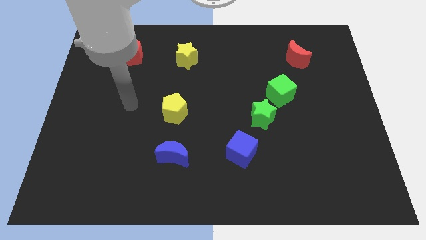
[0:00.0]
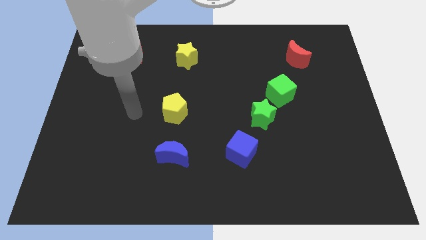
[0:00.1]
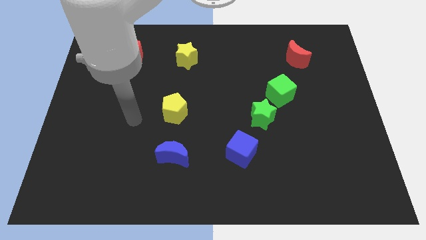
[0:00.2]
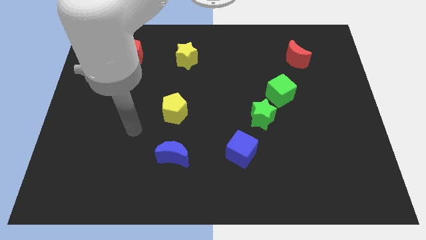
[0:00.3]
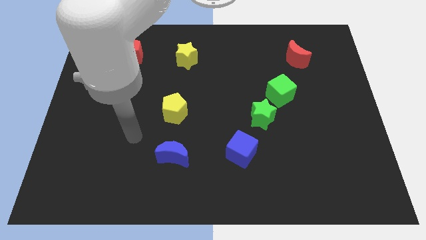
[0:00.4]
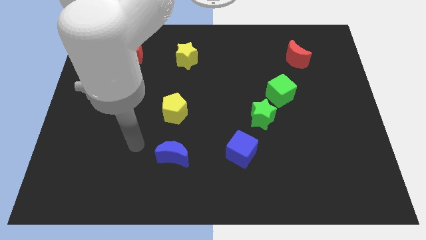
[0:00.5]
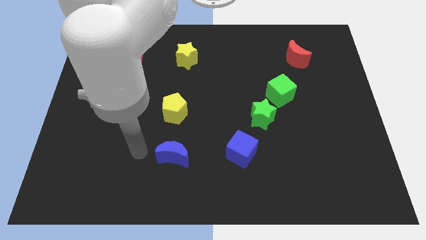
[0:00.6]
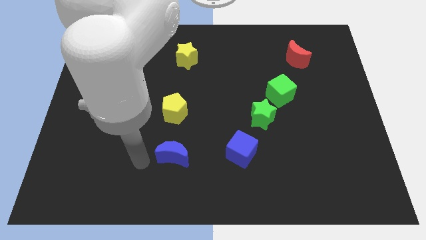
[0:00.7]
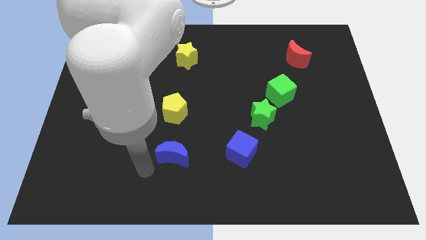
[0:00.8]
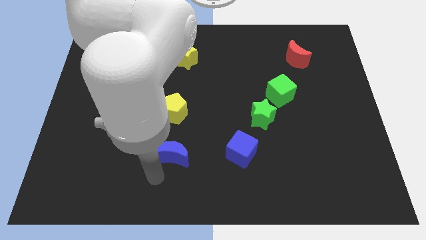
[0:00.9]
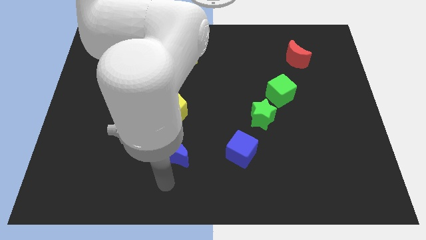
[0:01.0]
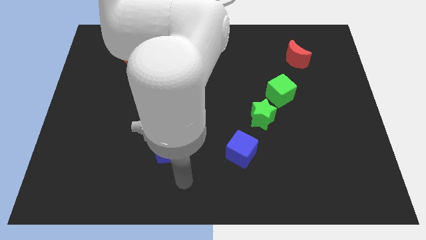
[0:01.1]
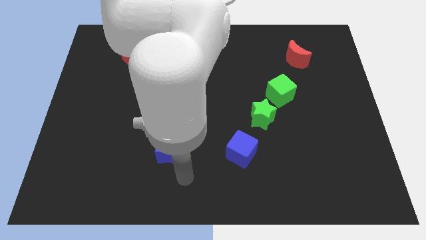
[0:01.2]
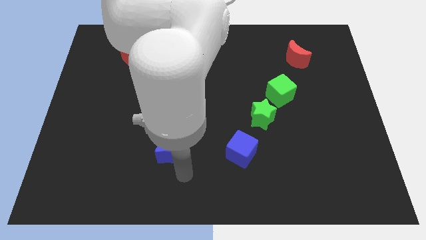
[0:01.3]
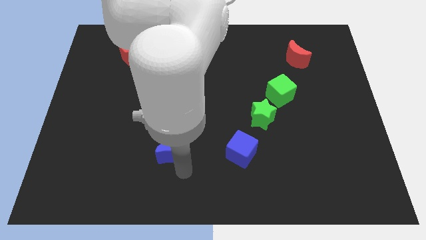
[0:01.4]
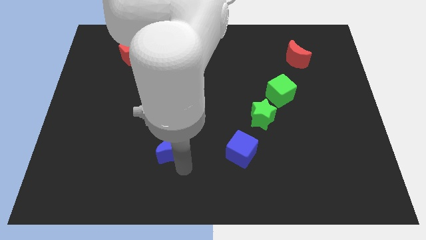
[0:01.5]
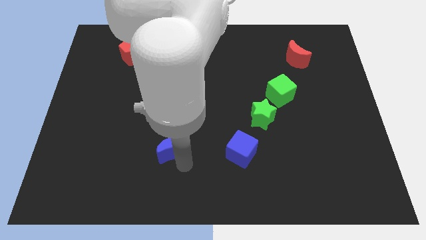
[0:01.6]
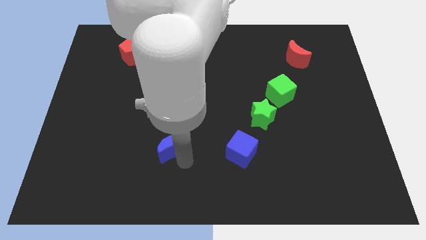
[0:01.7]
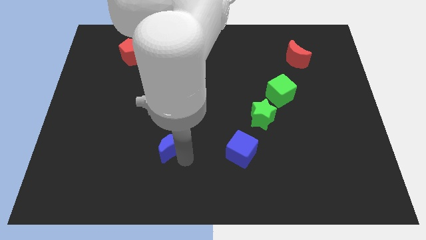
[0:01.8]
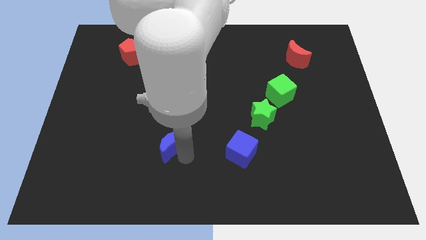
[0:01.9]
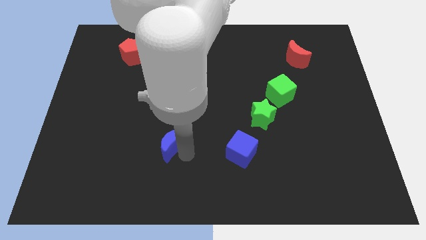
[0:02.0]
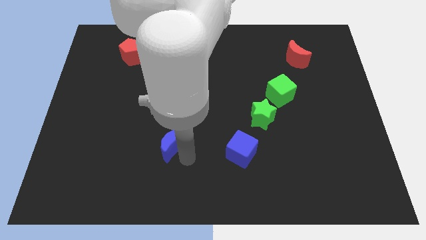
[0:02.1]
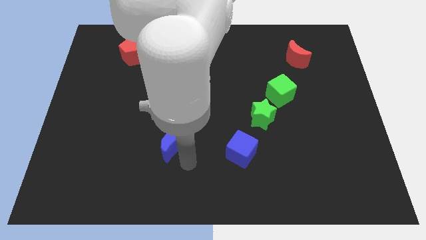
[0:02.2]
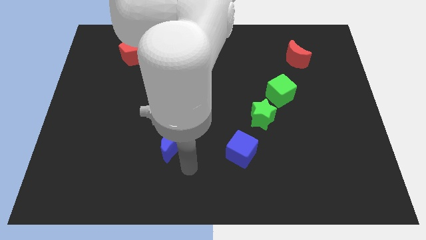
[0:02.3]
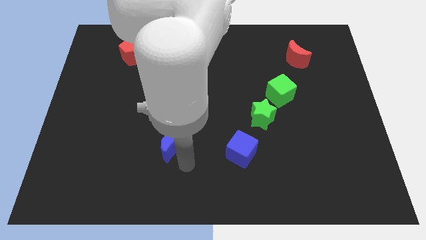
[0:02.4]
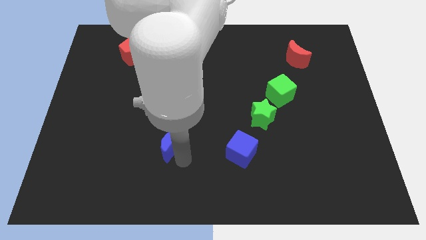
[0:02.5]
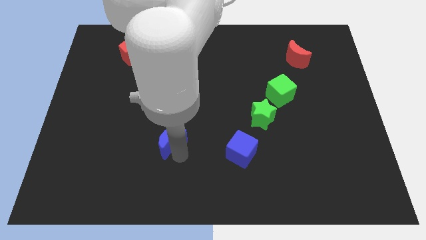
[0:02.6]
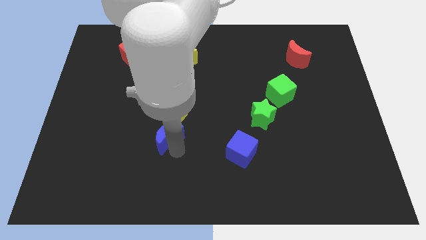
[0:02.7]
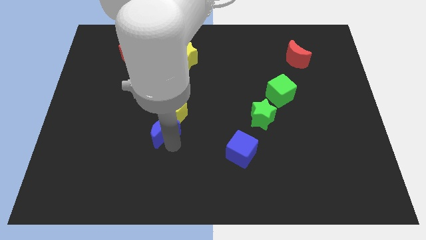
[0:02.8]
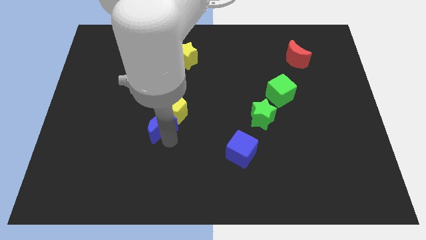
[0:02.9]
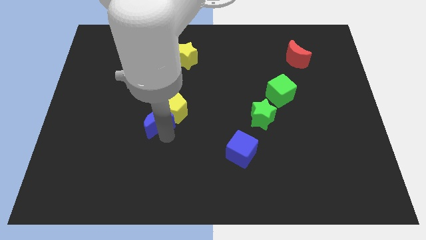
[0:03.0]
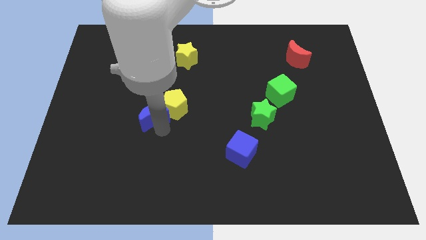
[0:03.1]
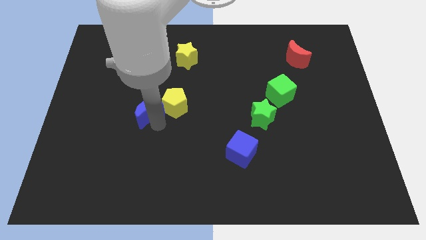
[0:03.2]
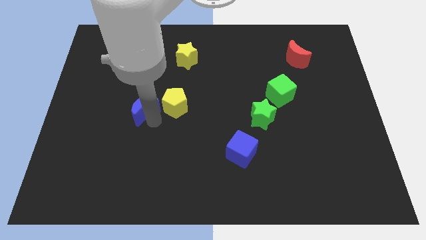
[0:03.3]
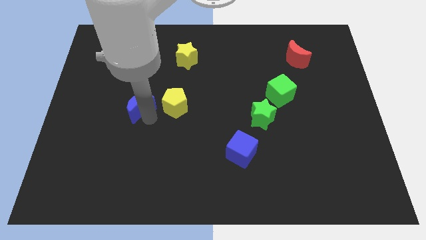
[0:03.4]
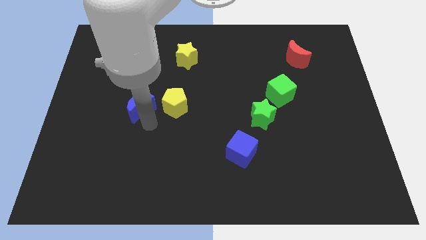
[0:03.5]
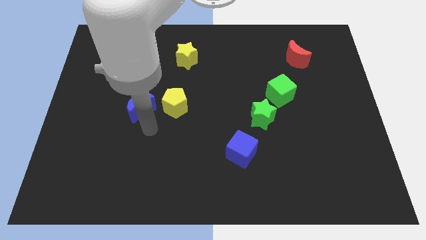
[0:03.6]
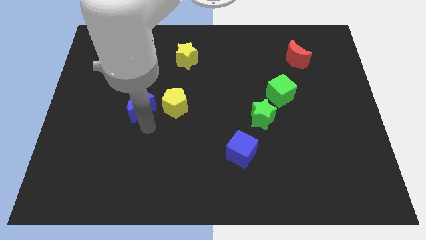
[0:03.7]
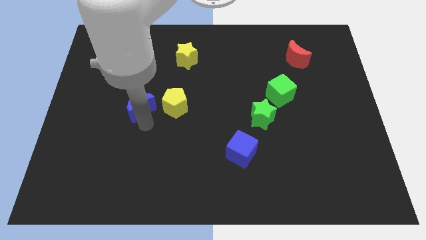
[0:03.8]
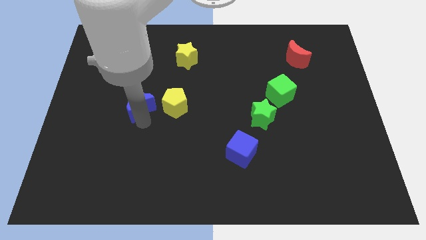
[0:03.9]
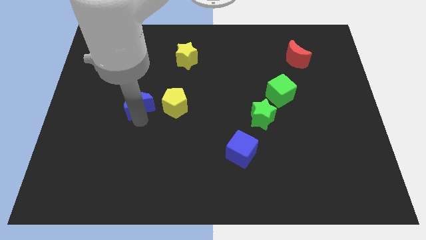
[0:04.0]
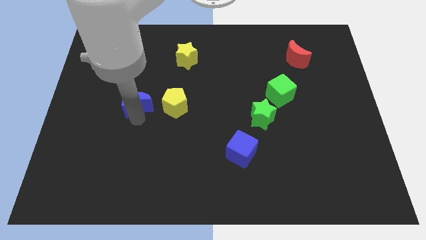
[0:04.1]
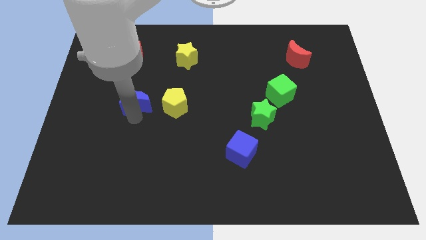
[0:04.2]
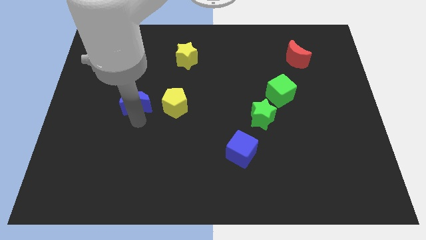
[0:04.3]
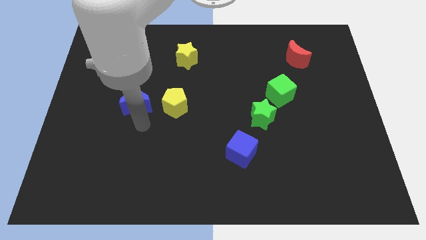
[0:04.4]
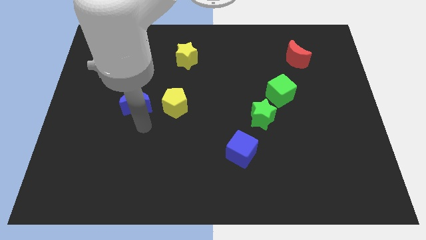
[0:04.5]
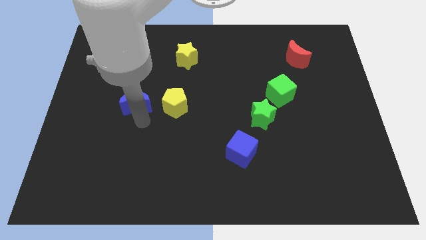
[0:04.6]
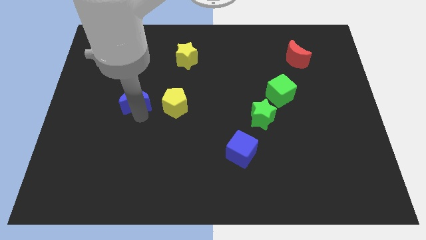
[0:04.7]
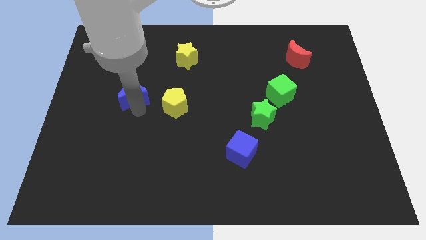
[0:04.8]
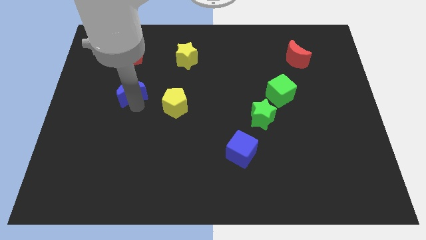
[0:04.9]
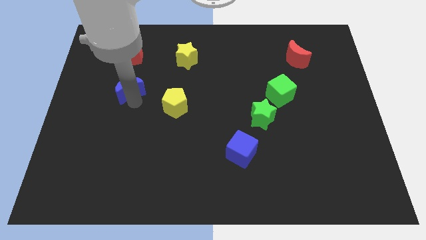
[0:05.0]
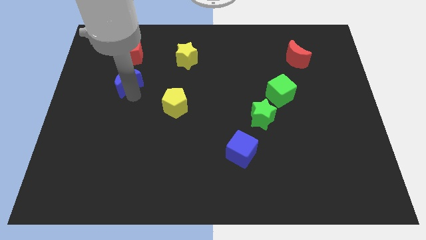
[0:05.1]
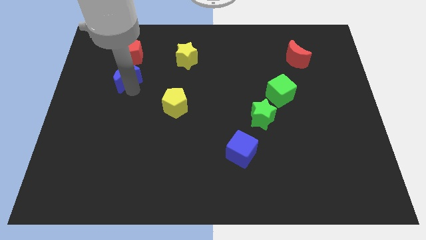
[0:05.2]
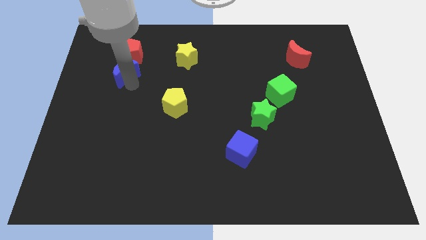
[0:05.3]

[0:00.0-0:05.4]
move the blue moon to the bottom left of the red pentagon

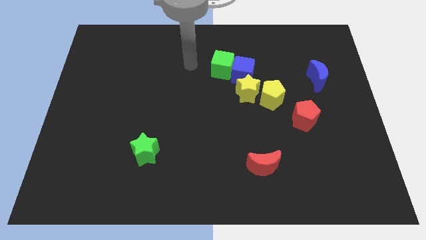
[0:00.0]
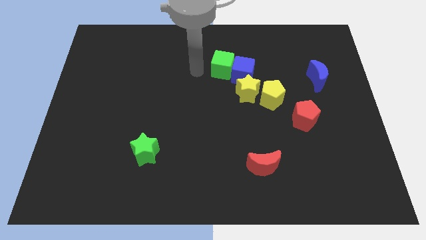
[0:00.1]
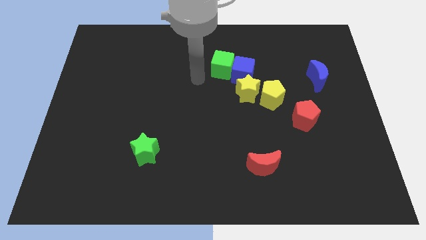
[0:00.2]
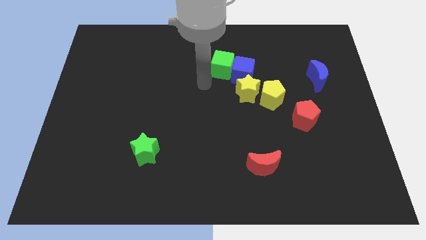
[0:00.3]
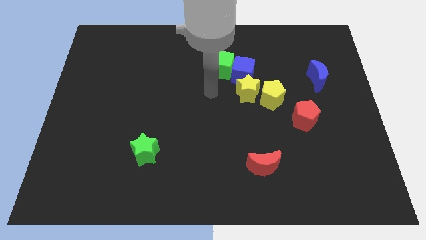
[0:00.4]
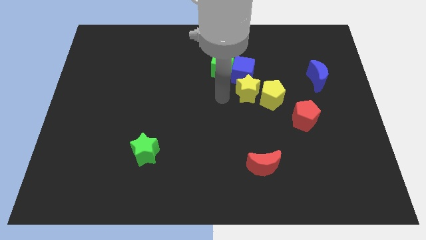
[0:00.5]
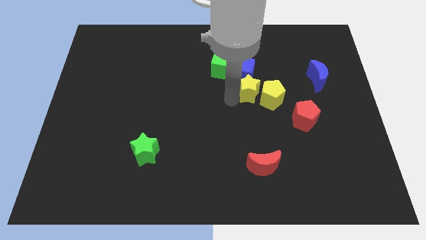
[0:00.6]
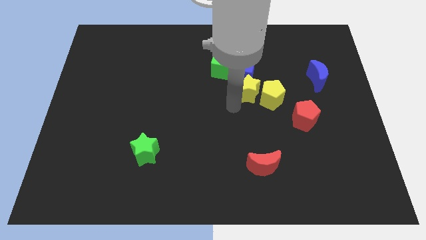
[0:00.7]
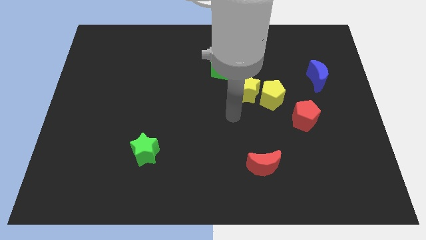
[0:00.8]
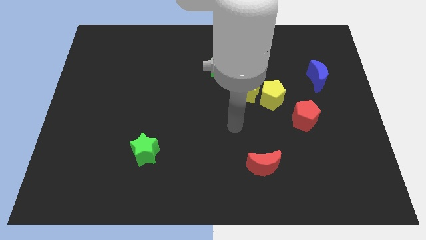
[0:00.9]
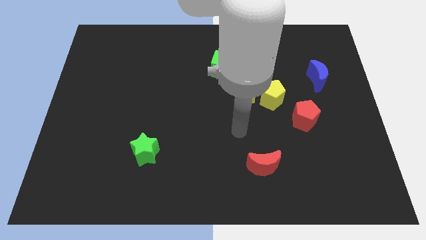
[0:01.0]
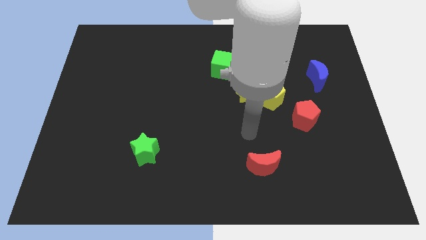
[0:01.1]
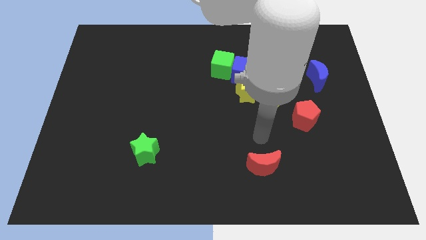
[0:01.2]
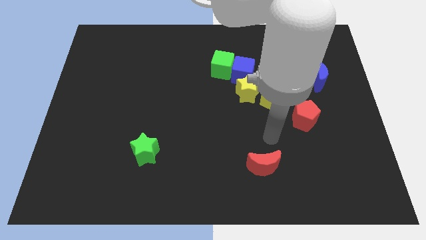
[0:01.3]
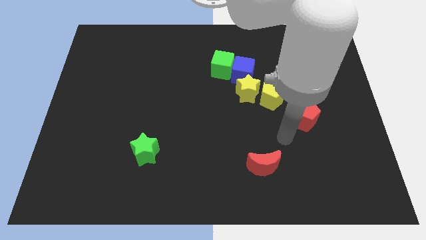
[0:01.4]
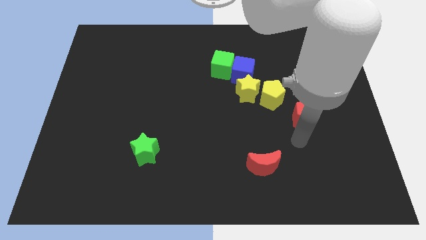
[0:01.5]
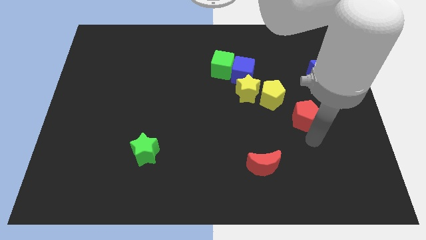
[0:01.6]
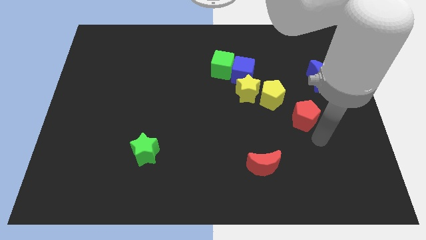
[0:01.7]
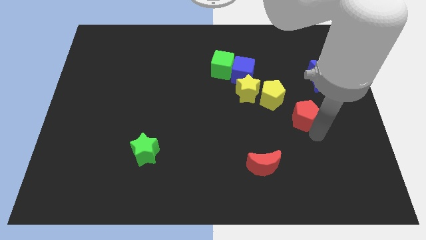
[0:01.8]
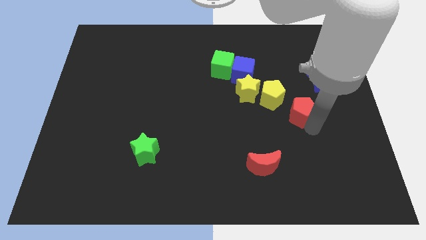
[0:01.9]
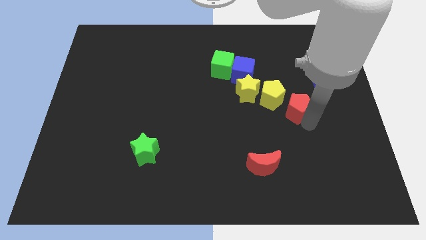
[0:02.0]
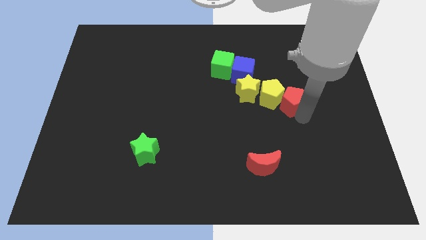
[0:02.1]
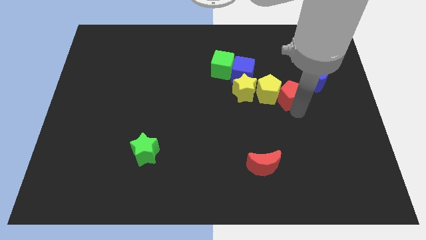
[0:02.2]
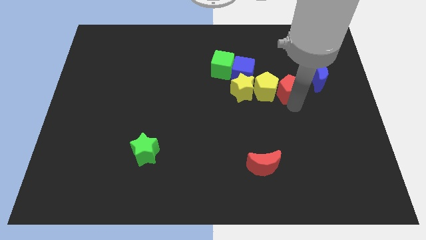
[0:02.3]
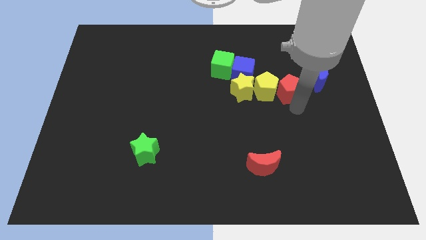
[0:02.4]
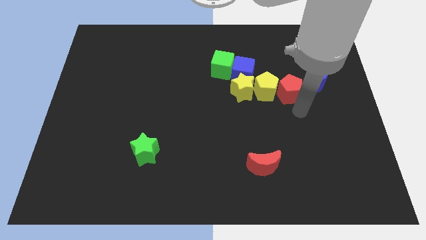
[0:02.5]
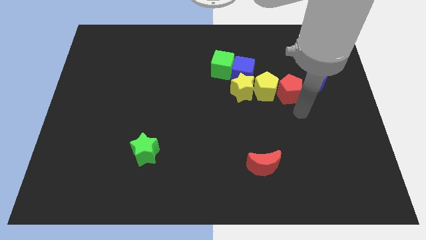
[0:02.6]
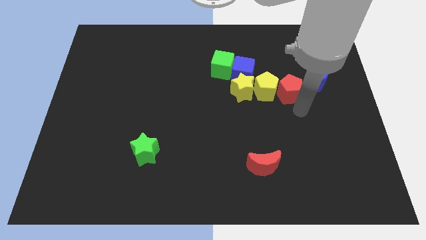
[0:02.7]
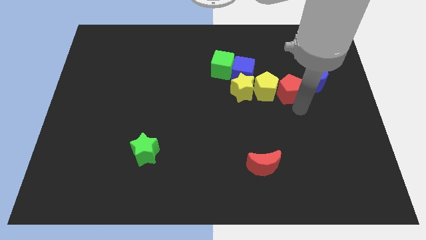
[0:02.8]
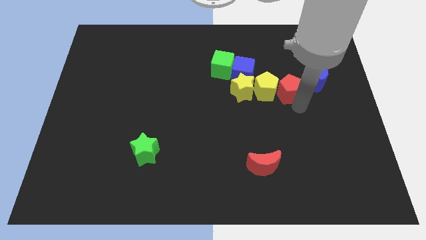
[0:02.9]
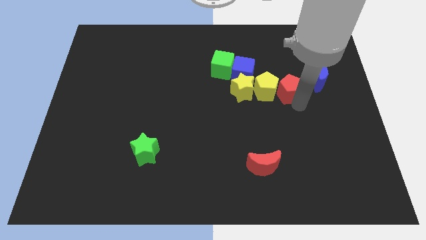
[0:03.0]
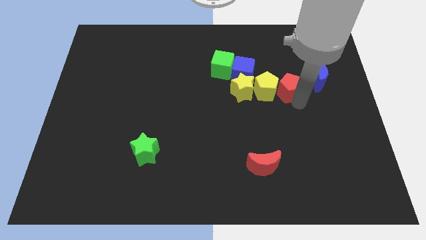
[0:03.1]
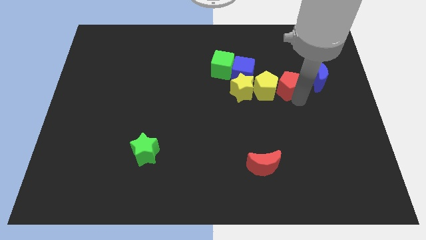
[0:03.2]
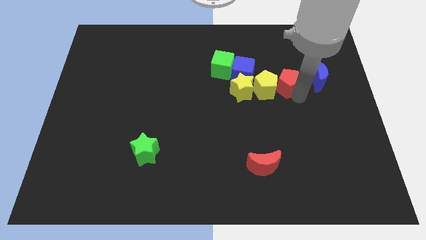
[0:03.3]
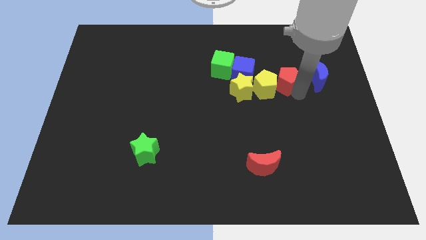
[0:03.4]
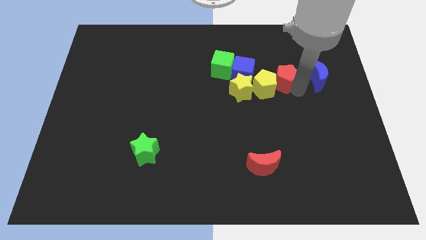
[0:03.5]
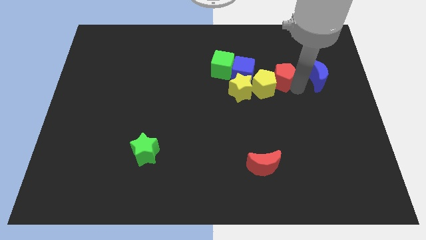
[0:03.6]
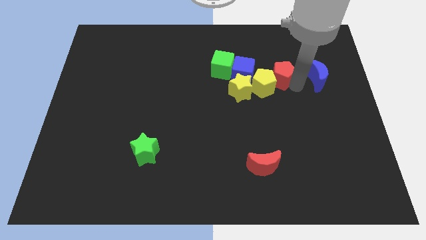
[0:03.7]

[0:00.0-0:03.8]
put the red pentagon right of the green cube
